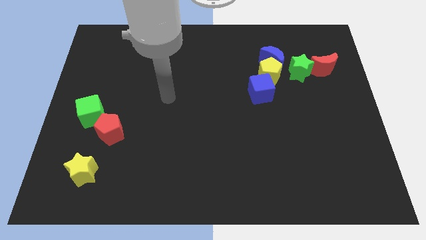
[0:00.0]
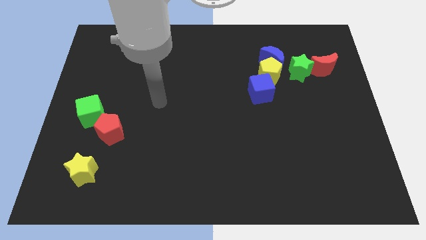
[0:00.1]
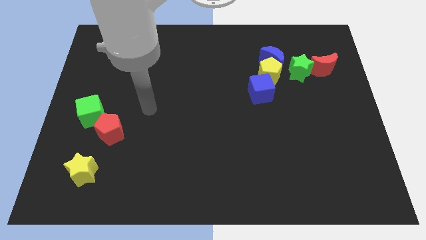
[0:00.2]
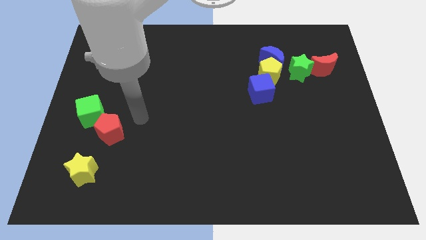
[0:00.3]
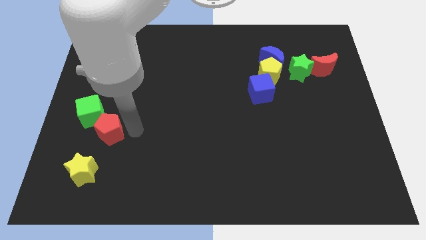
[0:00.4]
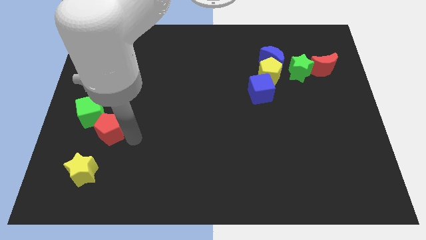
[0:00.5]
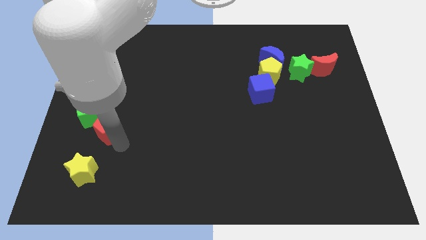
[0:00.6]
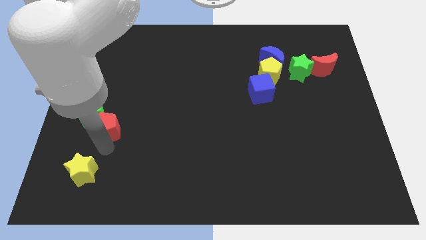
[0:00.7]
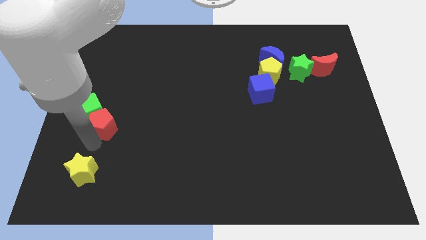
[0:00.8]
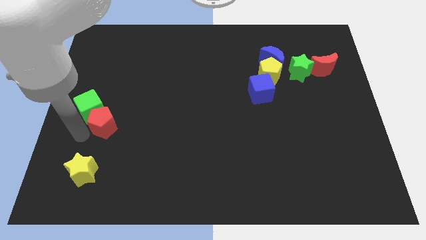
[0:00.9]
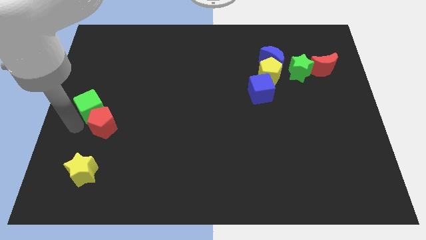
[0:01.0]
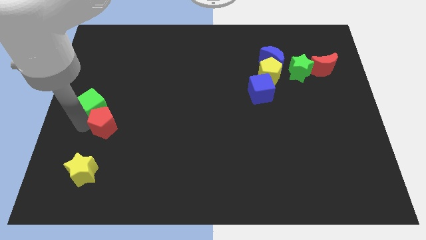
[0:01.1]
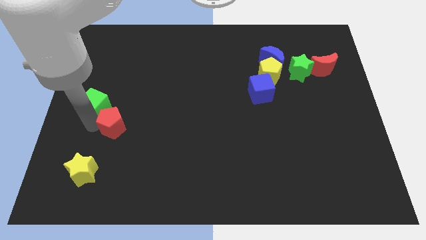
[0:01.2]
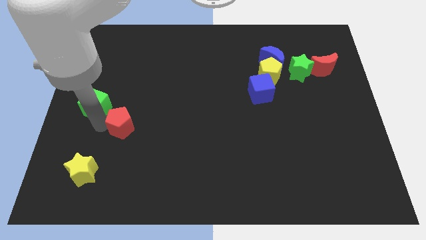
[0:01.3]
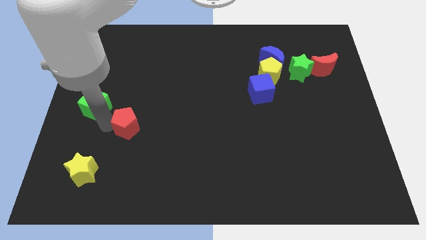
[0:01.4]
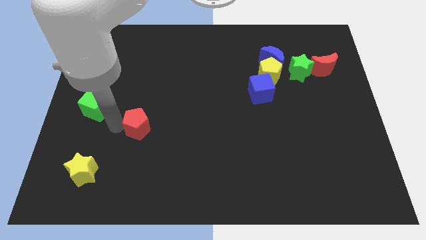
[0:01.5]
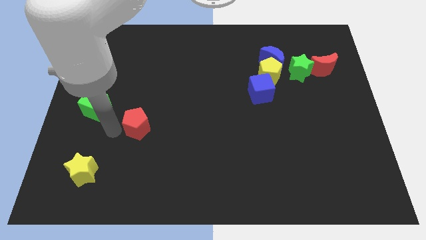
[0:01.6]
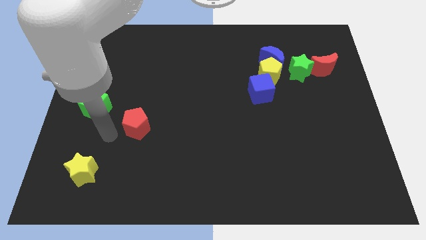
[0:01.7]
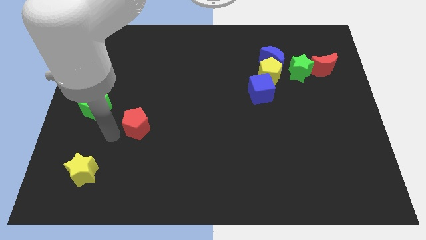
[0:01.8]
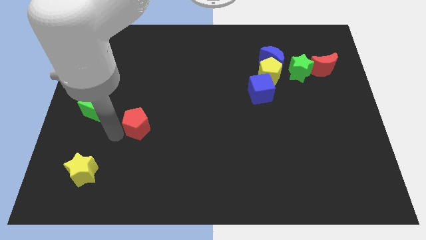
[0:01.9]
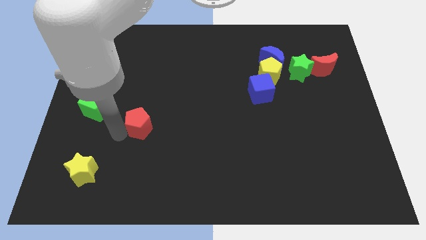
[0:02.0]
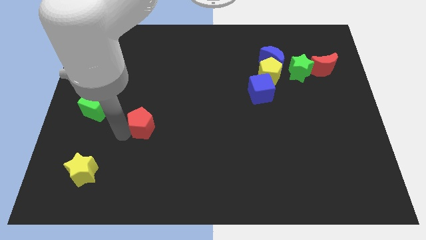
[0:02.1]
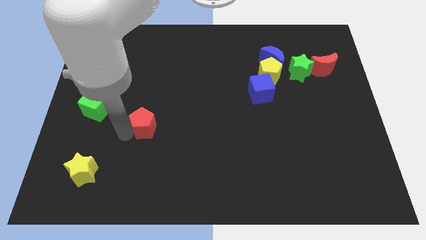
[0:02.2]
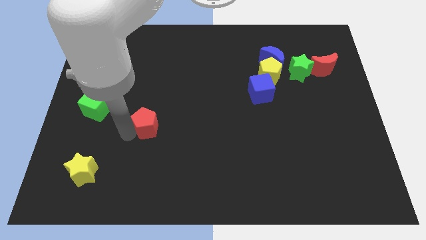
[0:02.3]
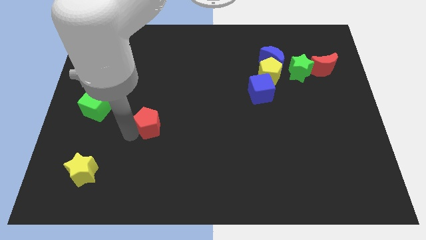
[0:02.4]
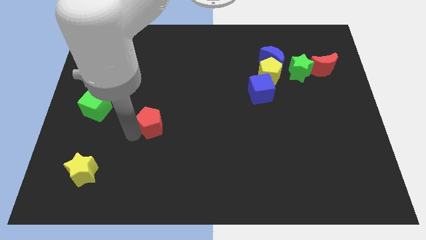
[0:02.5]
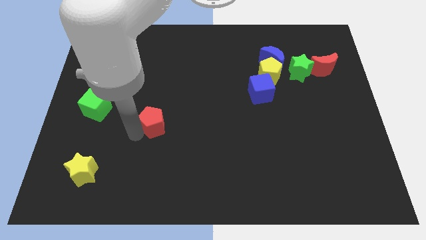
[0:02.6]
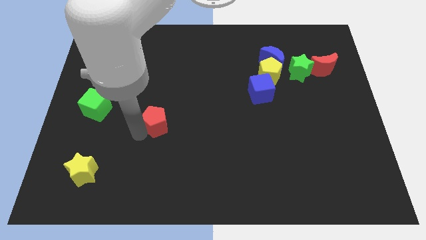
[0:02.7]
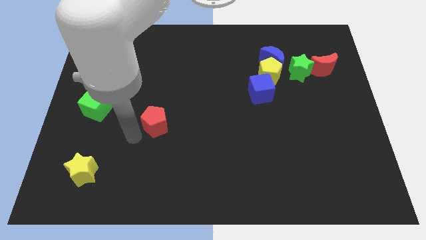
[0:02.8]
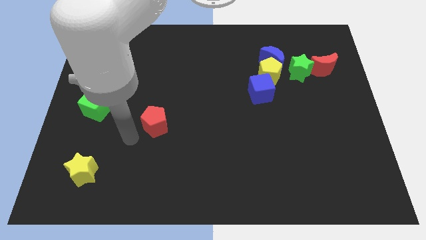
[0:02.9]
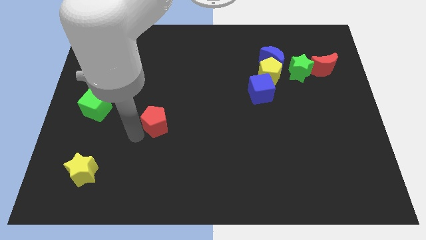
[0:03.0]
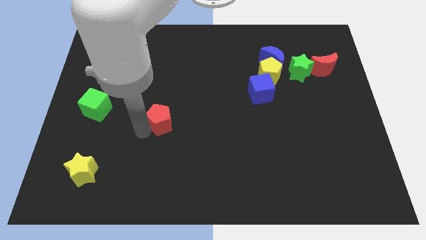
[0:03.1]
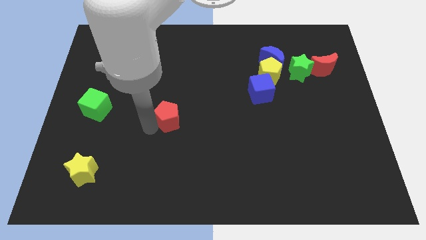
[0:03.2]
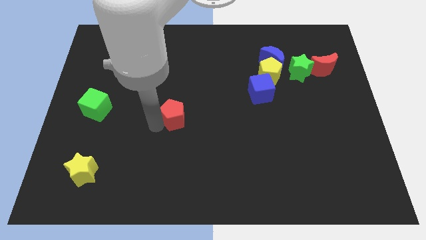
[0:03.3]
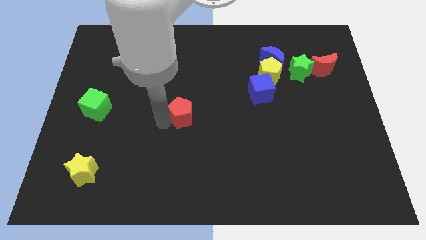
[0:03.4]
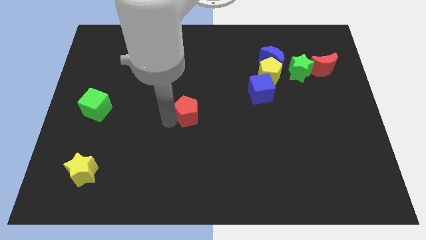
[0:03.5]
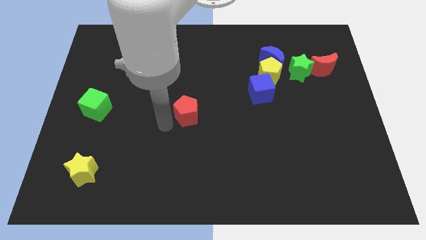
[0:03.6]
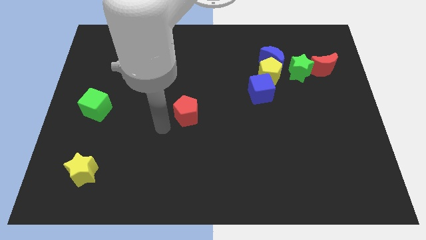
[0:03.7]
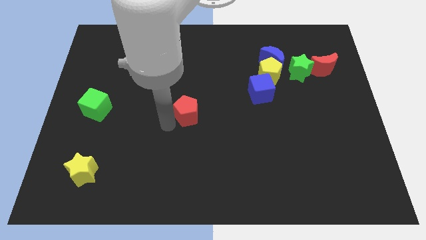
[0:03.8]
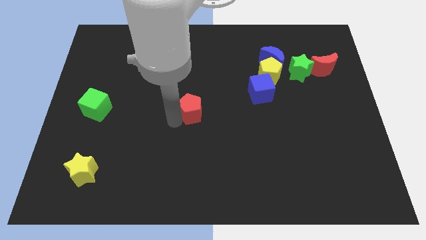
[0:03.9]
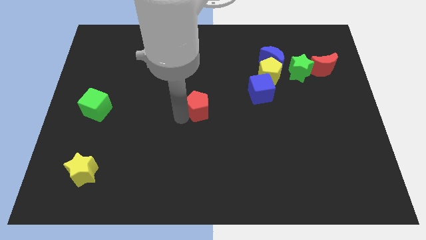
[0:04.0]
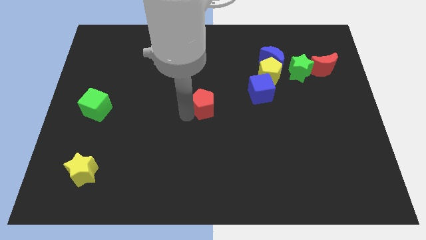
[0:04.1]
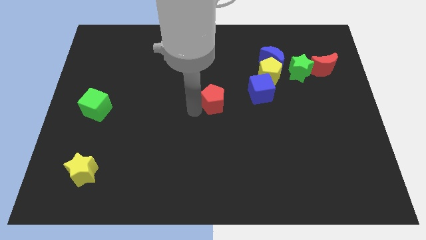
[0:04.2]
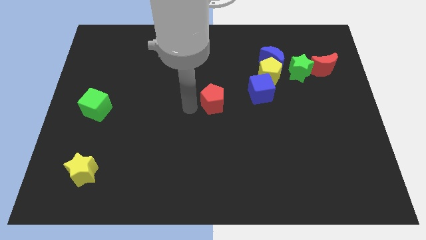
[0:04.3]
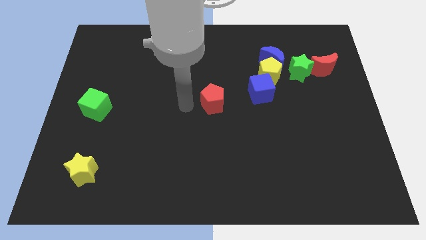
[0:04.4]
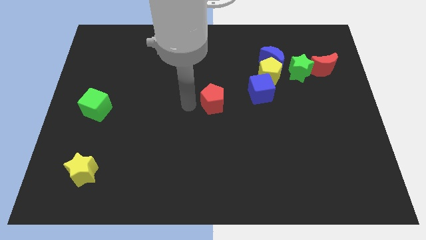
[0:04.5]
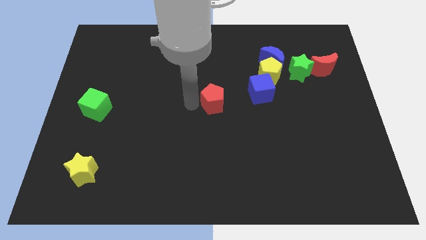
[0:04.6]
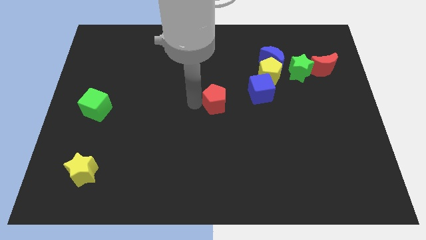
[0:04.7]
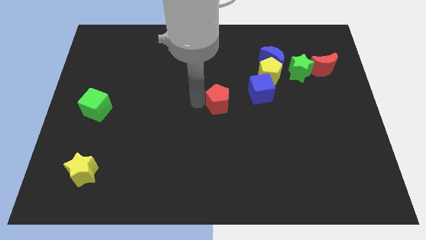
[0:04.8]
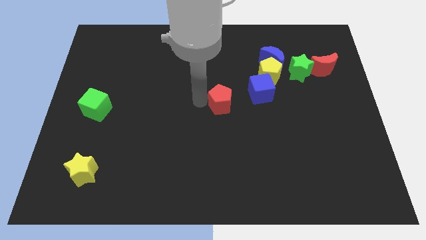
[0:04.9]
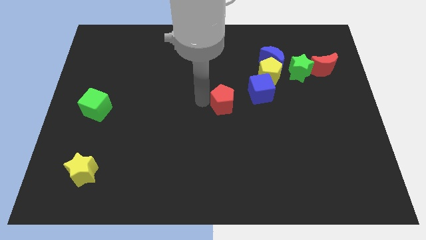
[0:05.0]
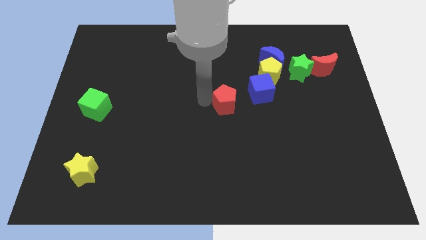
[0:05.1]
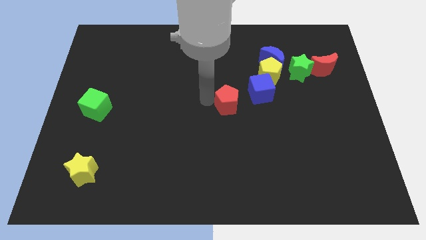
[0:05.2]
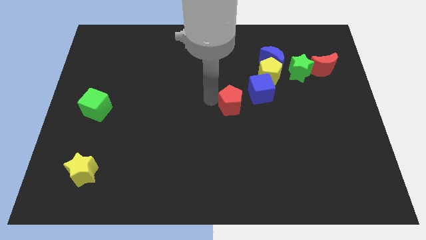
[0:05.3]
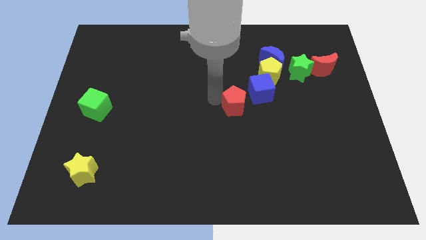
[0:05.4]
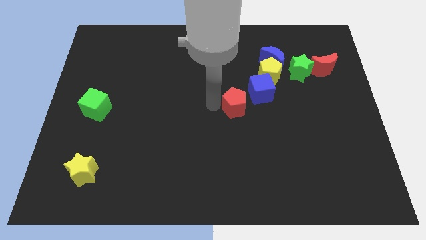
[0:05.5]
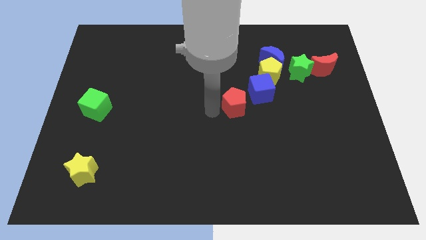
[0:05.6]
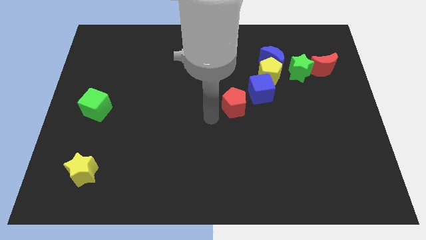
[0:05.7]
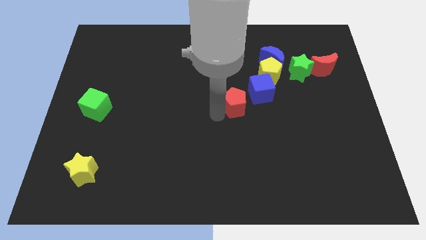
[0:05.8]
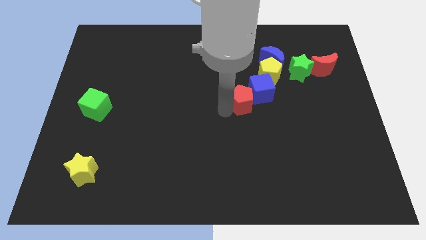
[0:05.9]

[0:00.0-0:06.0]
push the red pentagon towards the blue cube

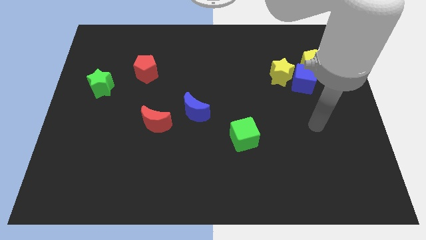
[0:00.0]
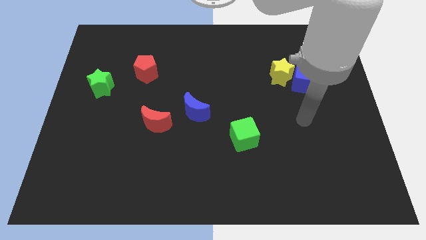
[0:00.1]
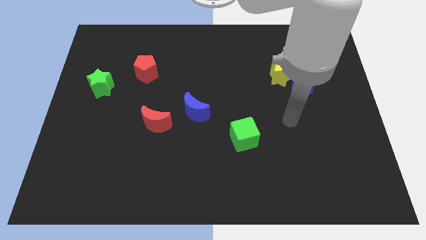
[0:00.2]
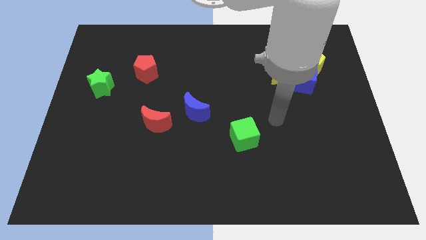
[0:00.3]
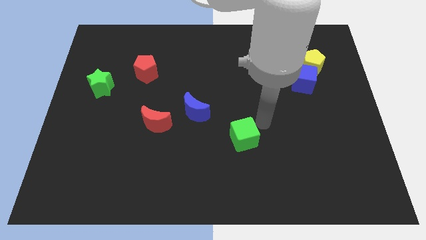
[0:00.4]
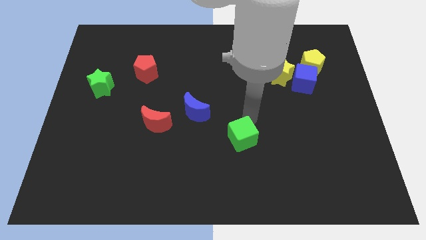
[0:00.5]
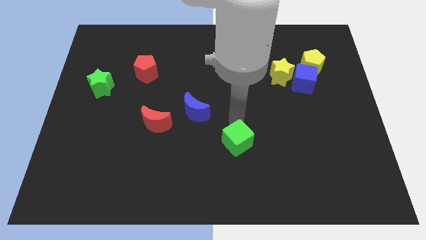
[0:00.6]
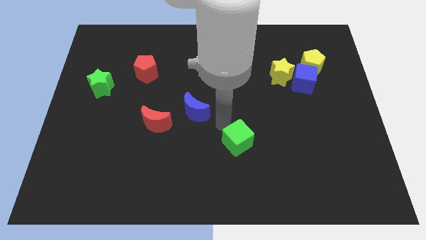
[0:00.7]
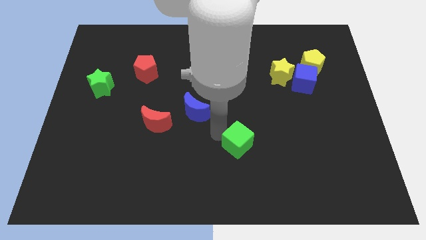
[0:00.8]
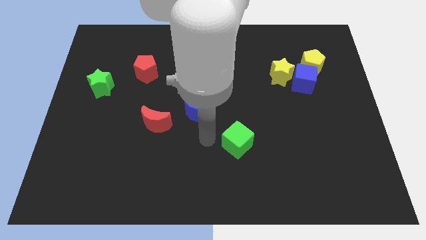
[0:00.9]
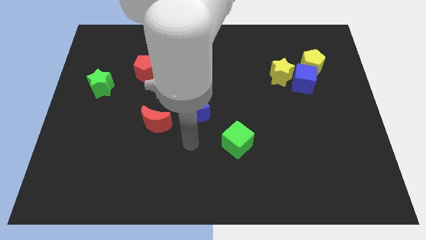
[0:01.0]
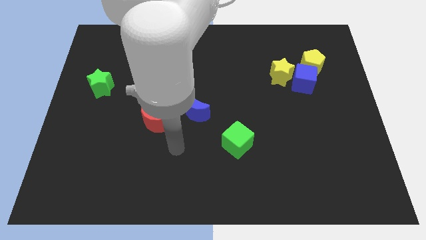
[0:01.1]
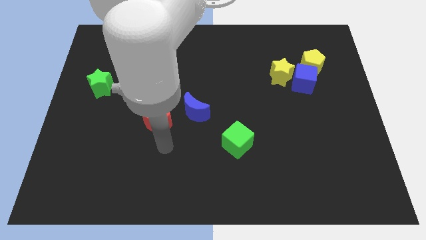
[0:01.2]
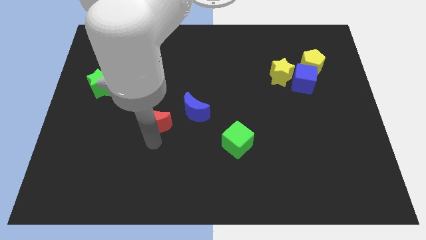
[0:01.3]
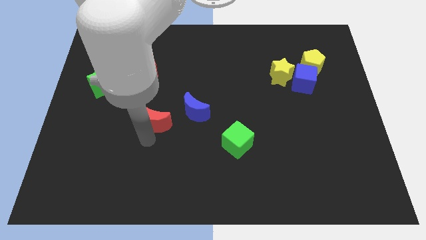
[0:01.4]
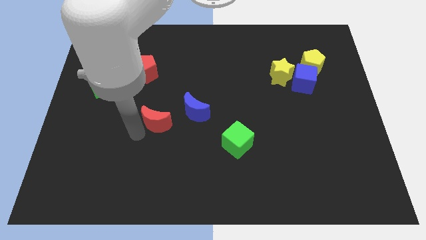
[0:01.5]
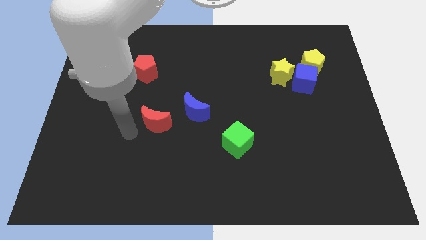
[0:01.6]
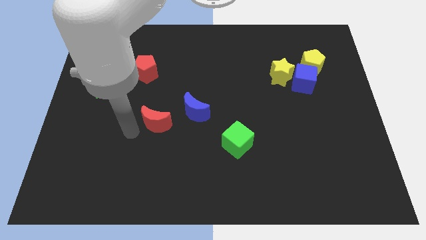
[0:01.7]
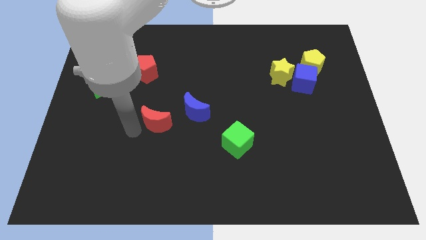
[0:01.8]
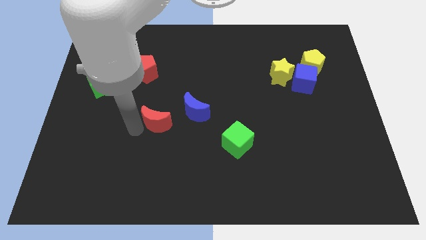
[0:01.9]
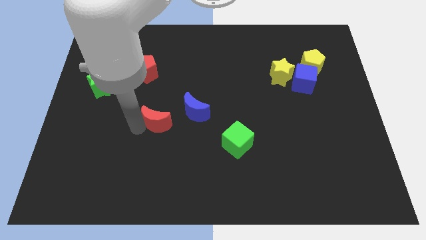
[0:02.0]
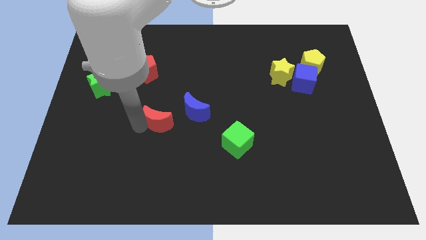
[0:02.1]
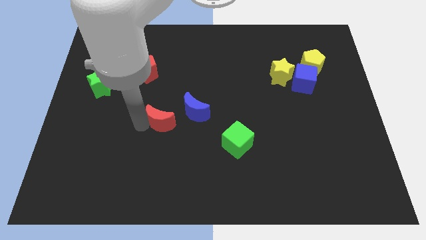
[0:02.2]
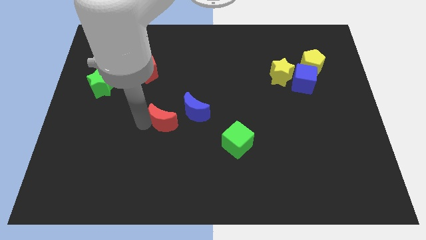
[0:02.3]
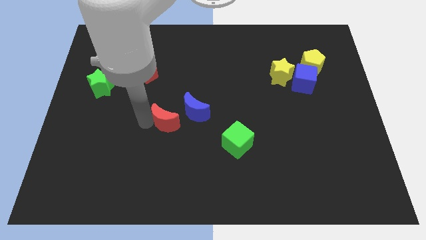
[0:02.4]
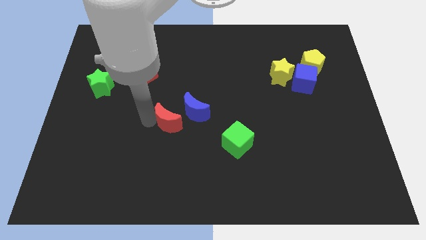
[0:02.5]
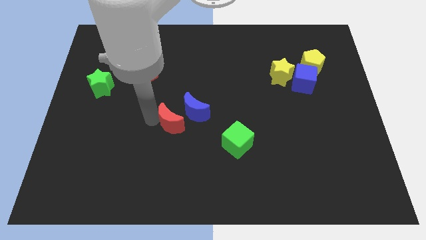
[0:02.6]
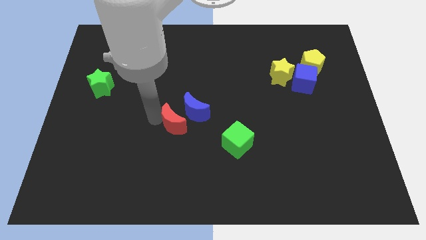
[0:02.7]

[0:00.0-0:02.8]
slide the red moon to the blue moon
